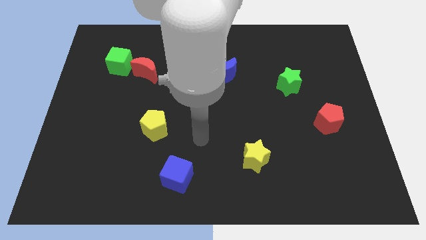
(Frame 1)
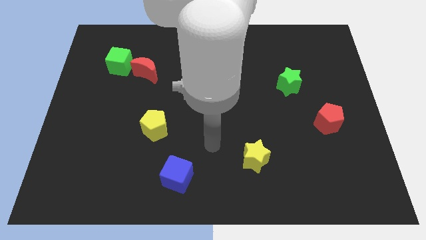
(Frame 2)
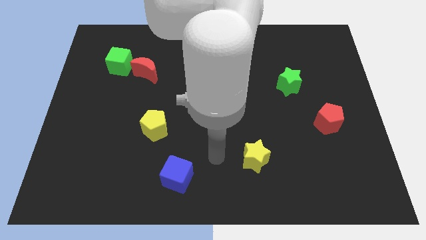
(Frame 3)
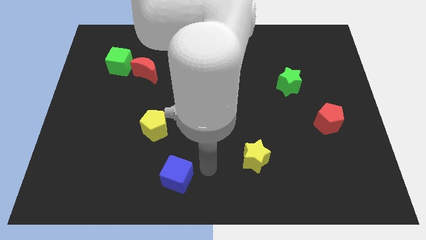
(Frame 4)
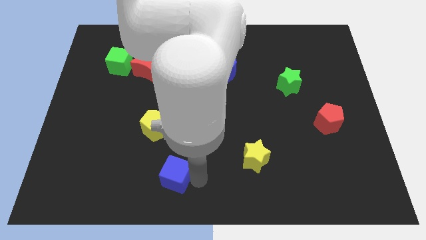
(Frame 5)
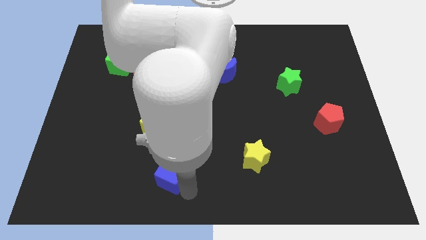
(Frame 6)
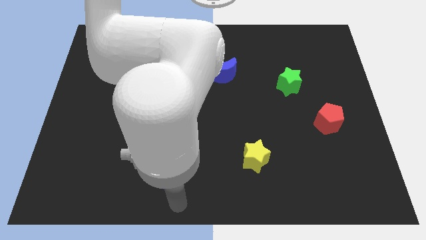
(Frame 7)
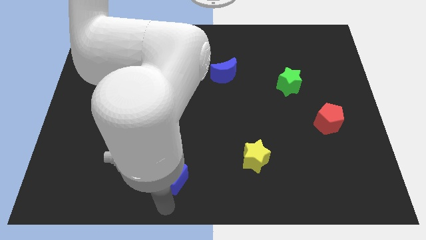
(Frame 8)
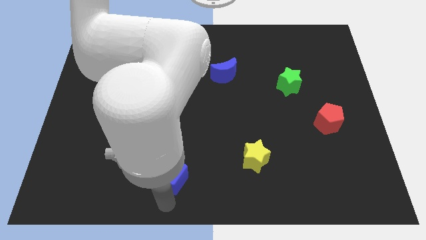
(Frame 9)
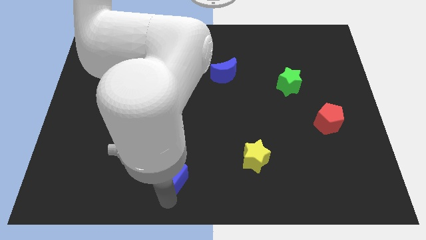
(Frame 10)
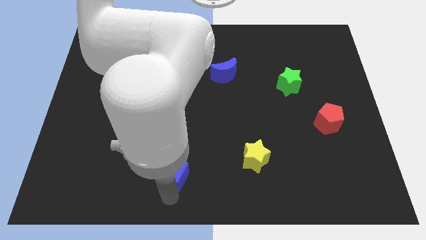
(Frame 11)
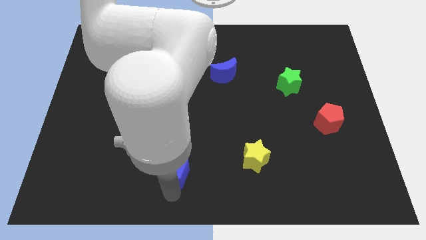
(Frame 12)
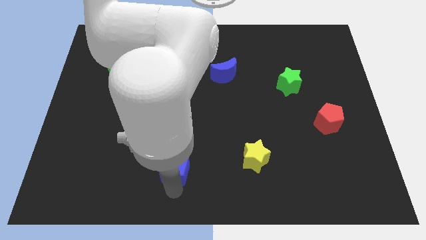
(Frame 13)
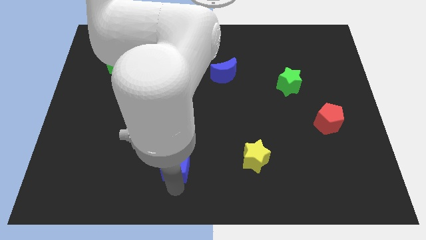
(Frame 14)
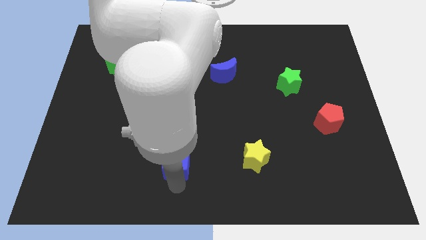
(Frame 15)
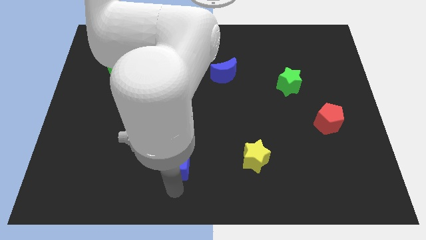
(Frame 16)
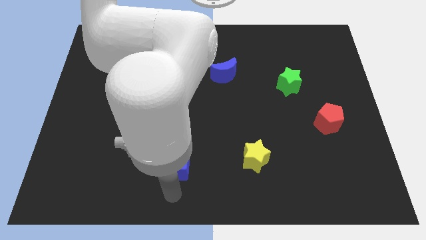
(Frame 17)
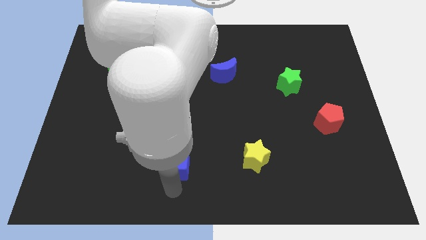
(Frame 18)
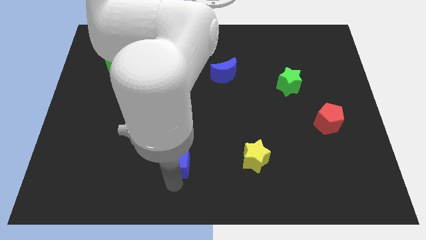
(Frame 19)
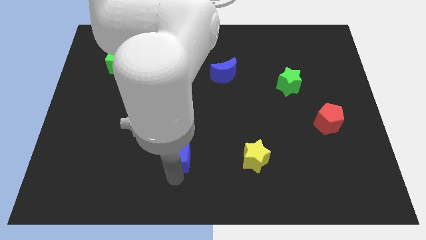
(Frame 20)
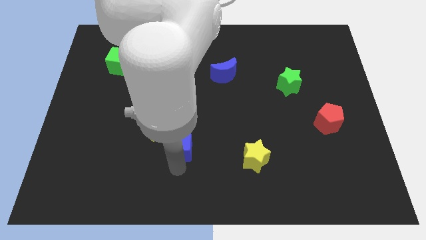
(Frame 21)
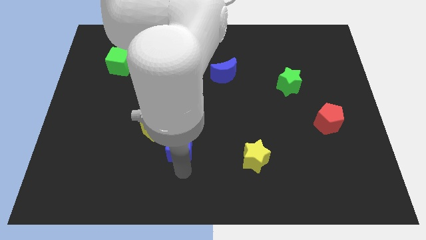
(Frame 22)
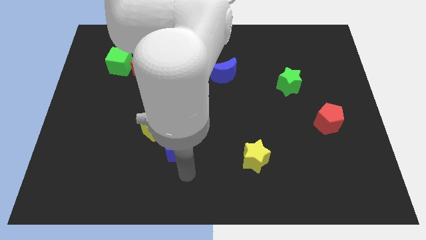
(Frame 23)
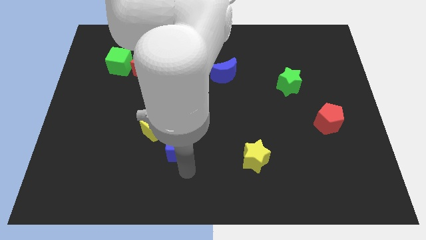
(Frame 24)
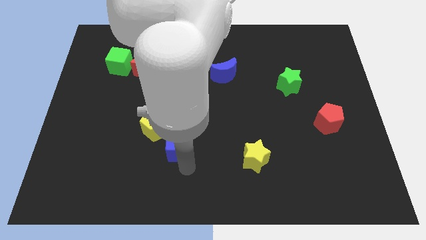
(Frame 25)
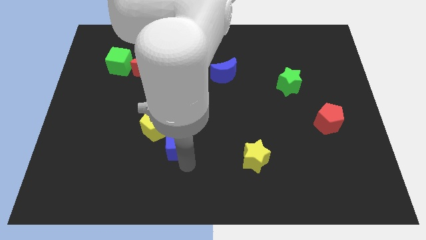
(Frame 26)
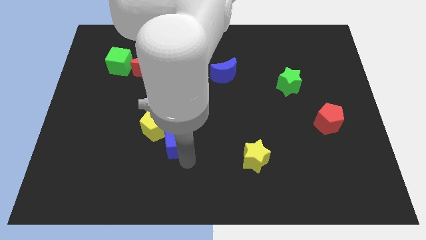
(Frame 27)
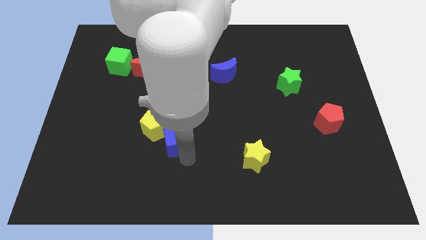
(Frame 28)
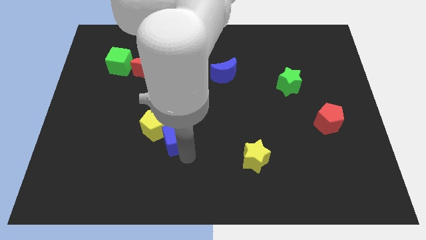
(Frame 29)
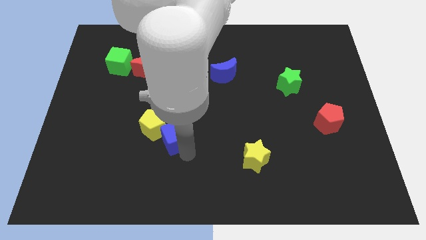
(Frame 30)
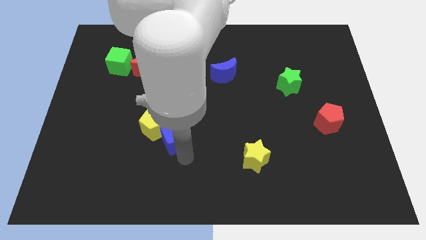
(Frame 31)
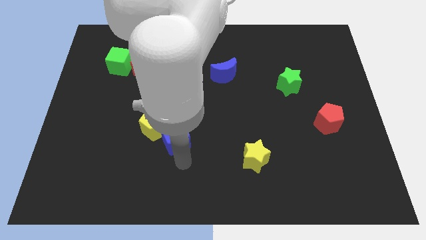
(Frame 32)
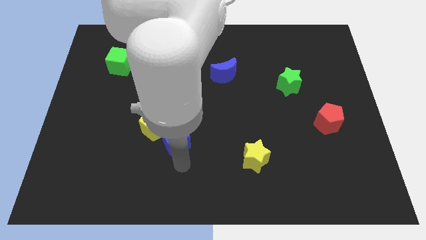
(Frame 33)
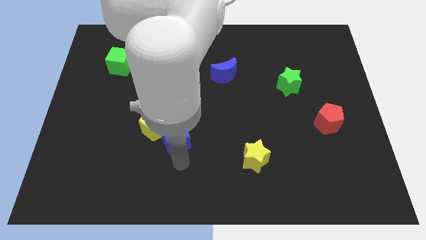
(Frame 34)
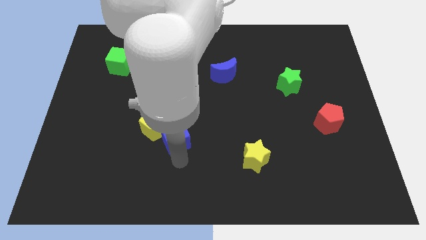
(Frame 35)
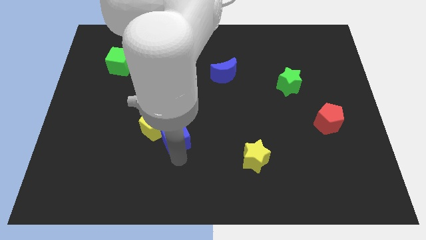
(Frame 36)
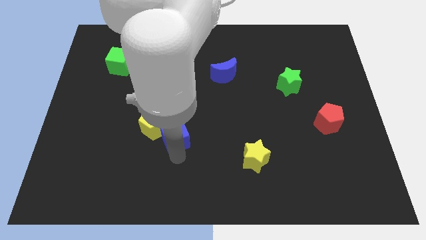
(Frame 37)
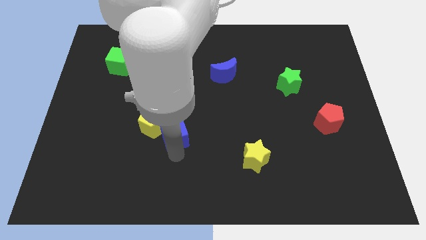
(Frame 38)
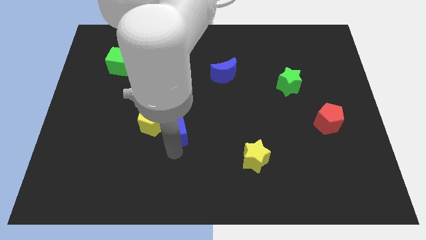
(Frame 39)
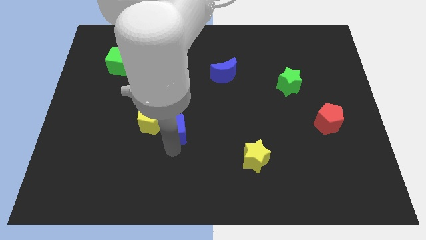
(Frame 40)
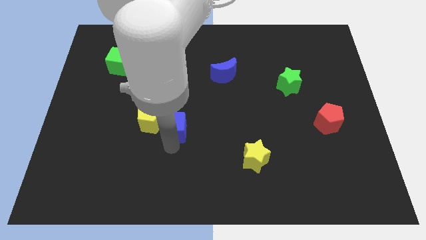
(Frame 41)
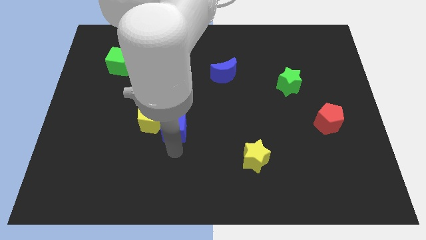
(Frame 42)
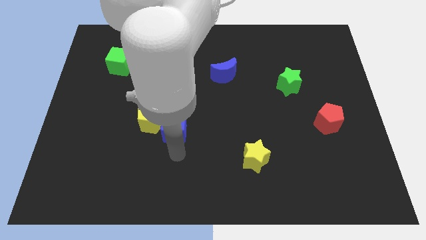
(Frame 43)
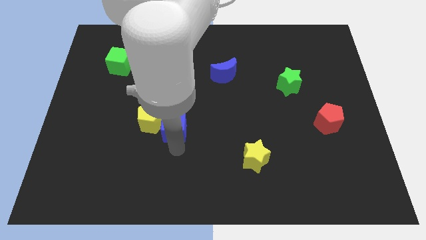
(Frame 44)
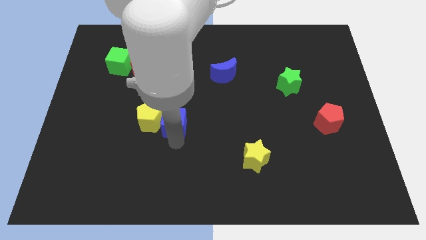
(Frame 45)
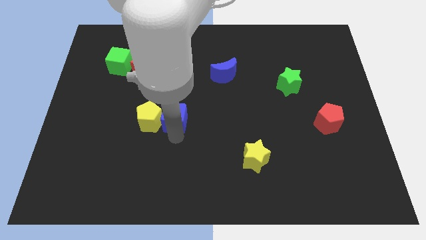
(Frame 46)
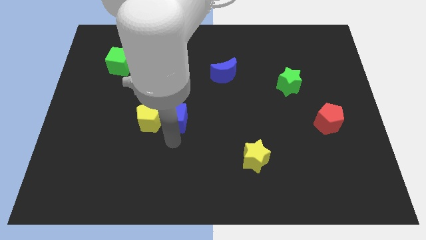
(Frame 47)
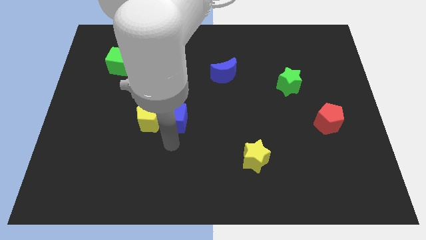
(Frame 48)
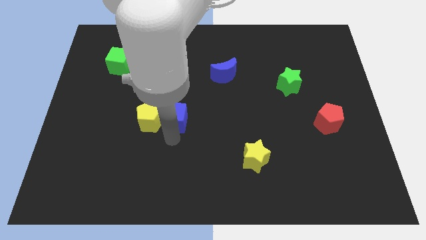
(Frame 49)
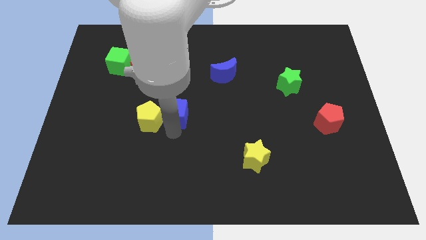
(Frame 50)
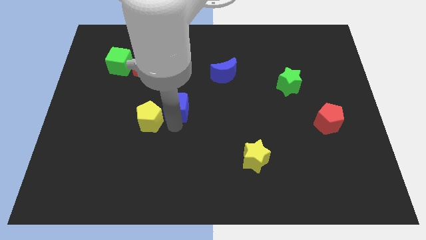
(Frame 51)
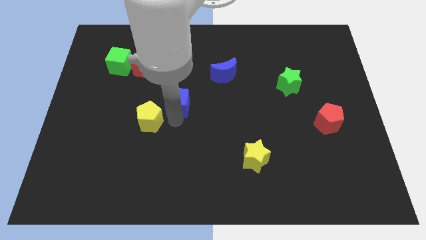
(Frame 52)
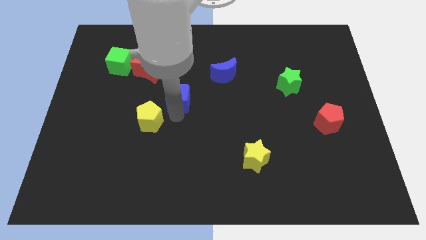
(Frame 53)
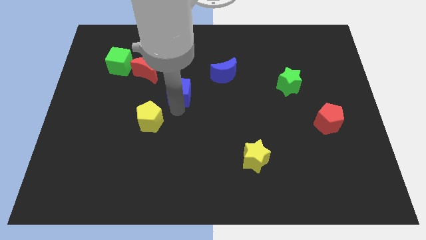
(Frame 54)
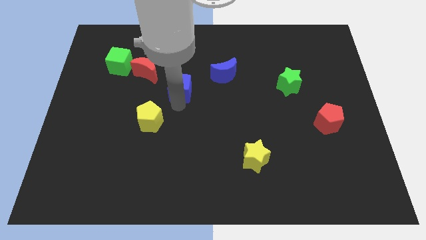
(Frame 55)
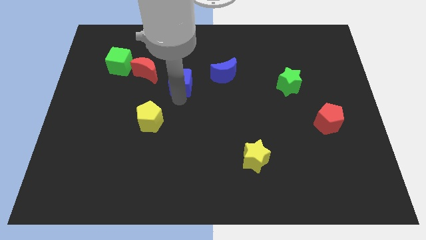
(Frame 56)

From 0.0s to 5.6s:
push the blue cube to the left side of the blue moon

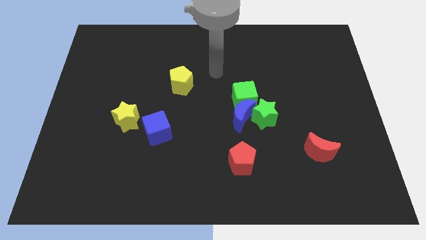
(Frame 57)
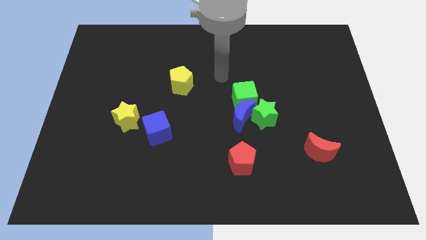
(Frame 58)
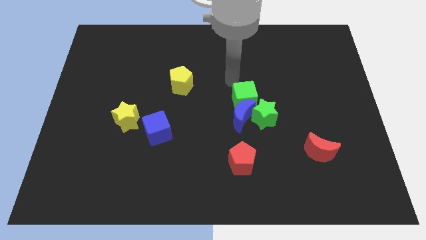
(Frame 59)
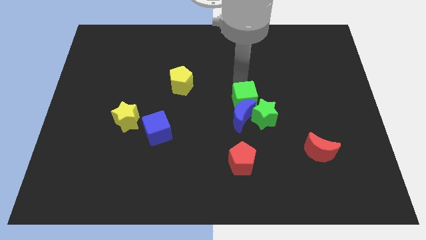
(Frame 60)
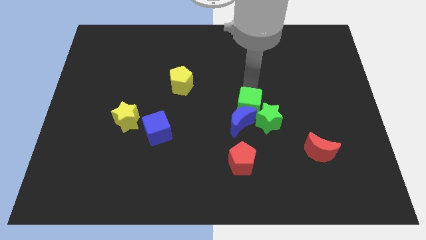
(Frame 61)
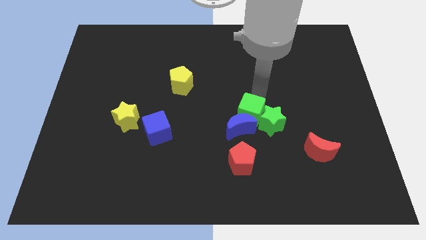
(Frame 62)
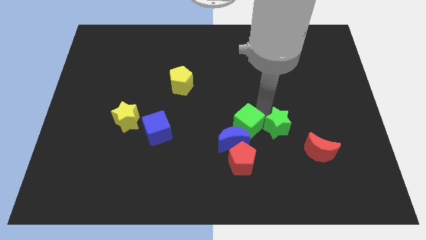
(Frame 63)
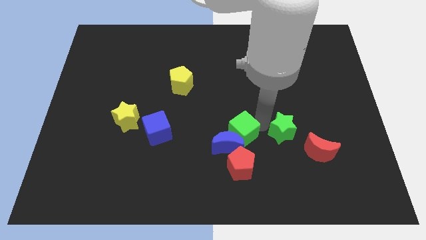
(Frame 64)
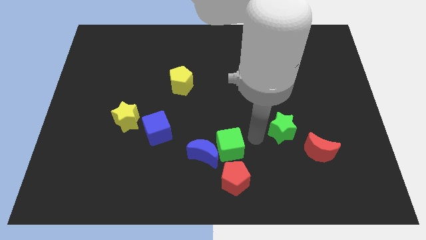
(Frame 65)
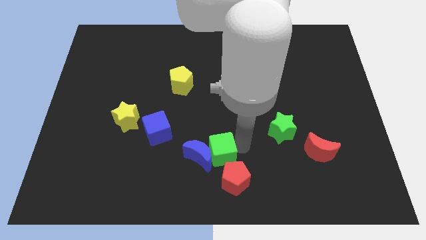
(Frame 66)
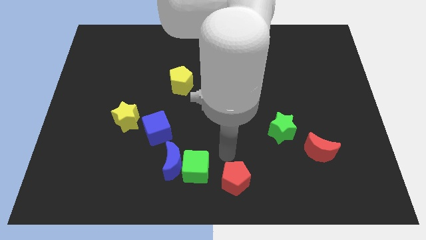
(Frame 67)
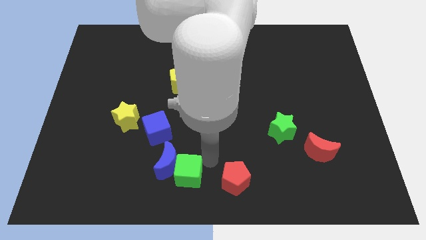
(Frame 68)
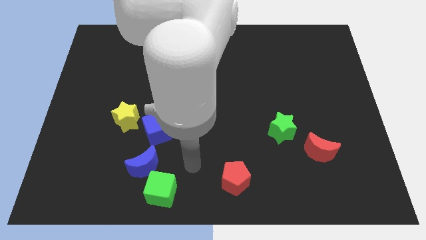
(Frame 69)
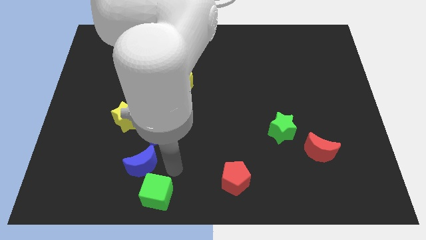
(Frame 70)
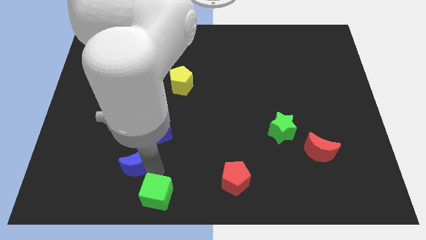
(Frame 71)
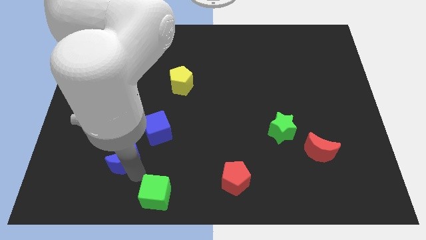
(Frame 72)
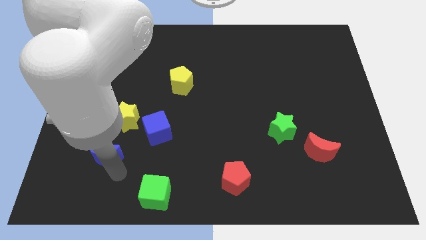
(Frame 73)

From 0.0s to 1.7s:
move the blue moon to the bottom left side of the yellow star
